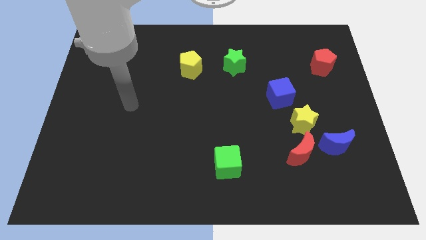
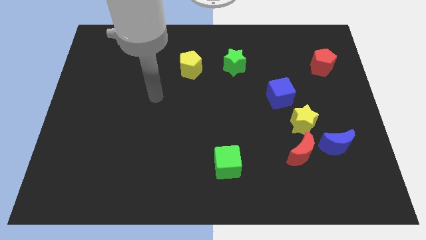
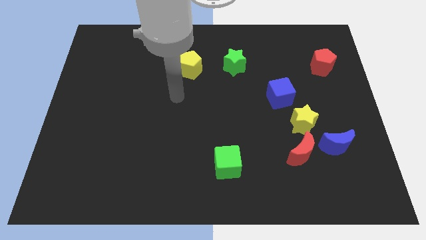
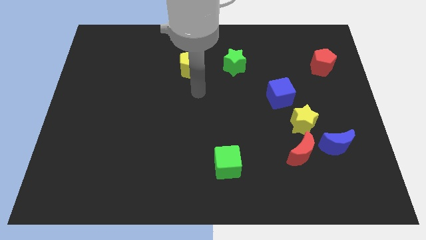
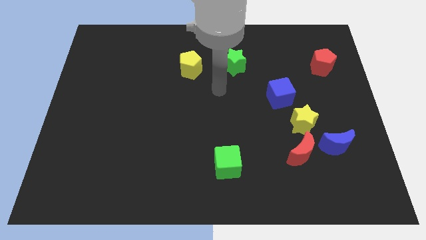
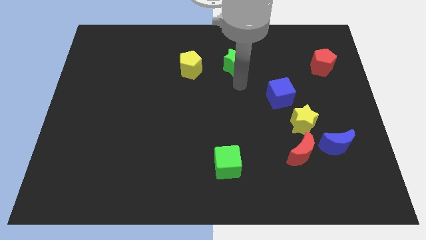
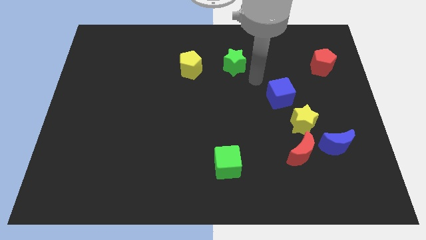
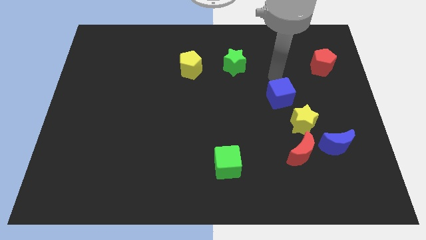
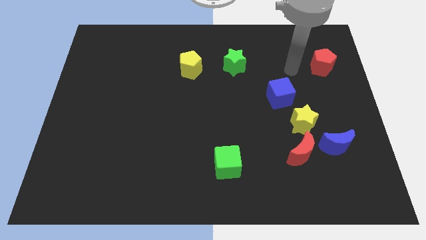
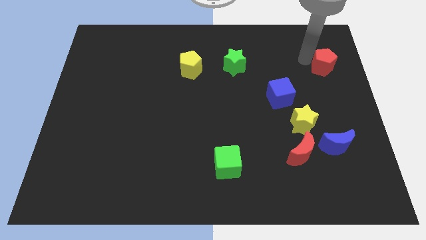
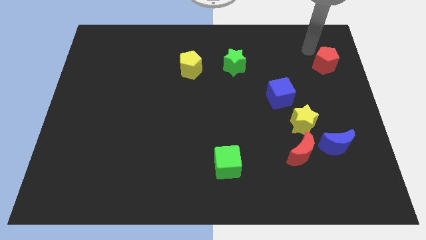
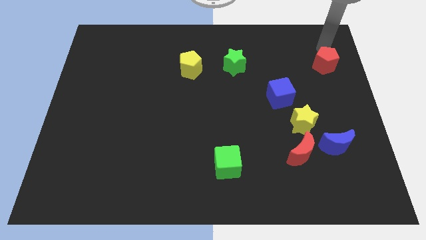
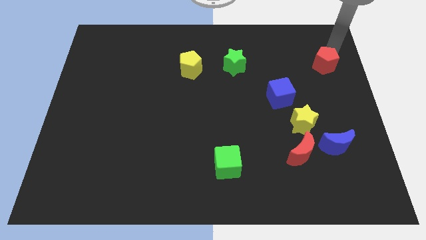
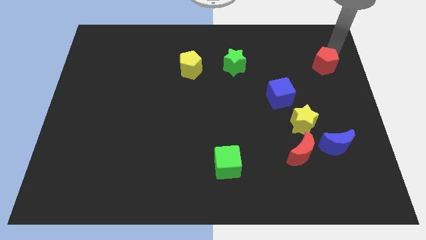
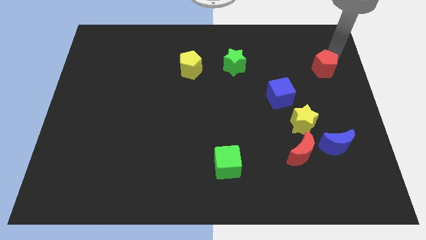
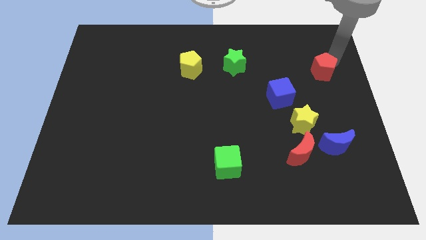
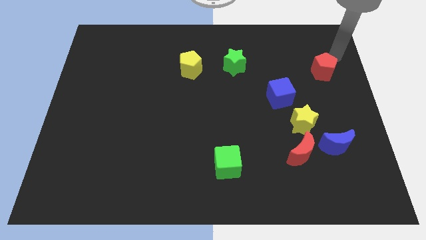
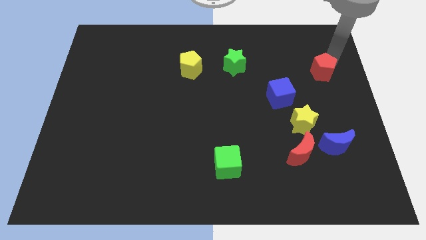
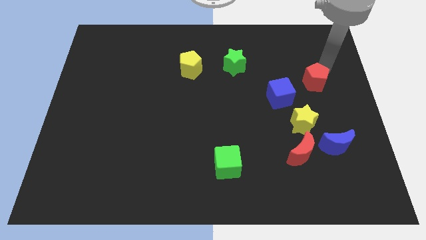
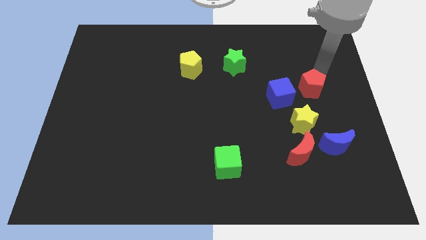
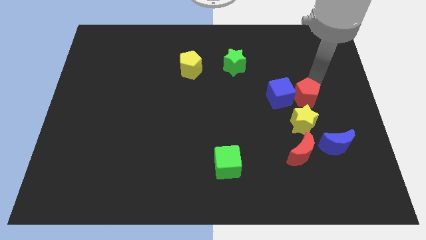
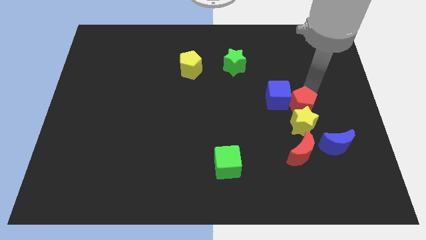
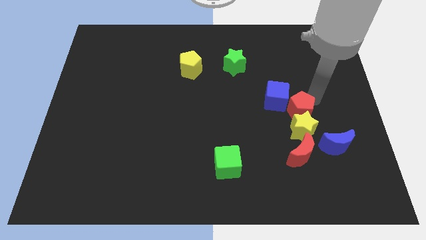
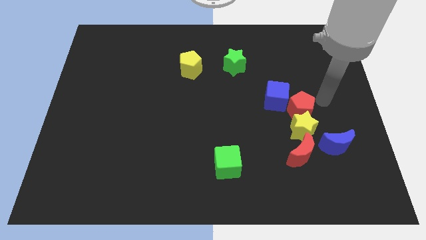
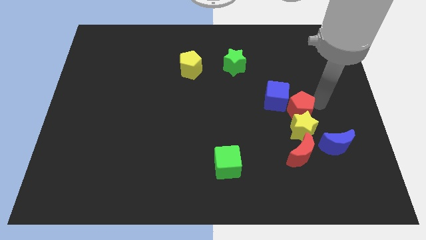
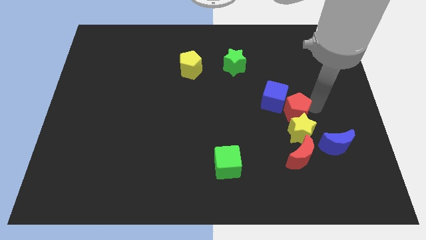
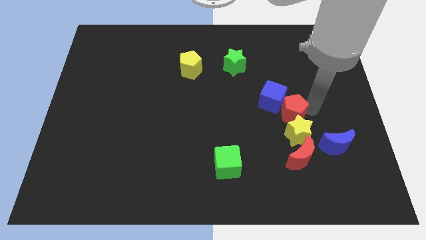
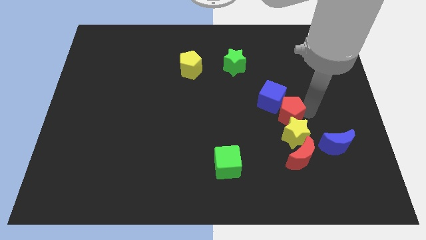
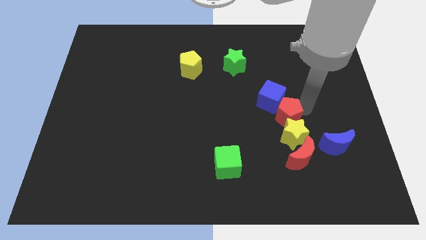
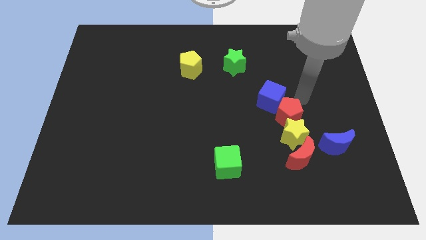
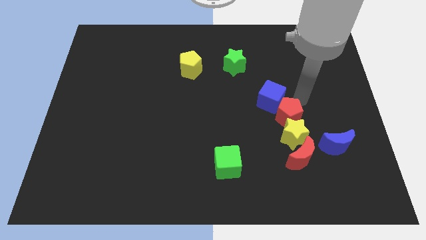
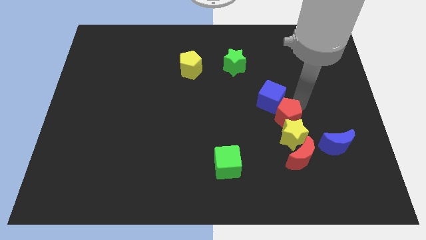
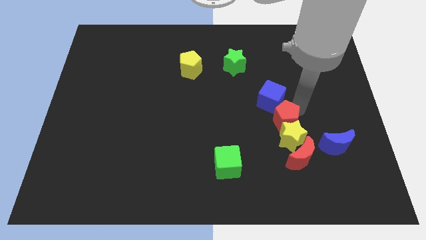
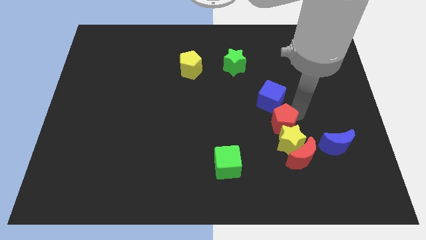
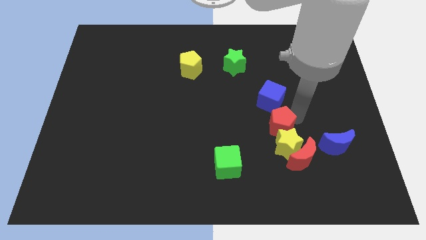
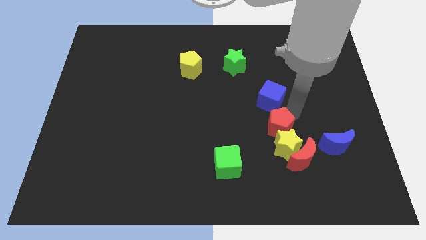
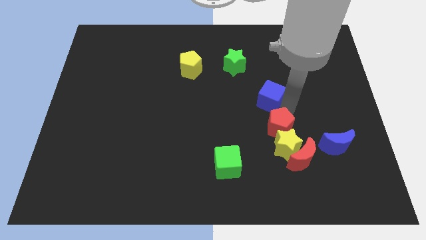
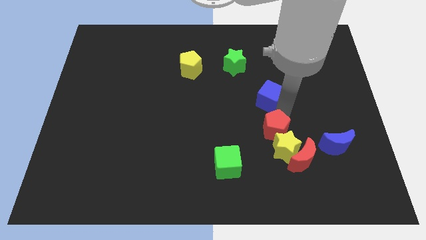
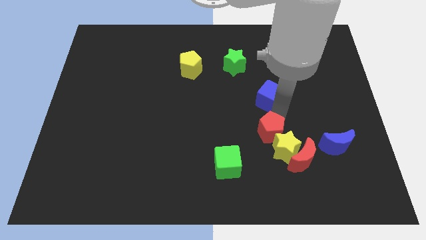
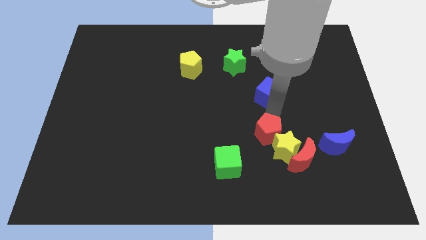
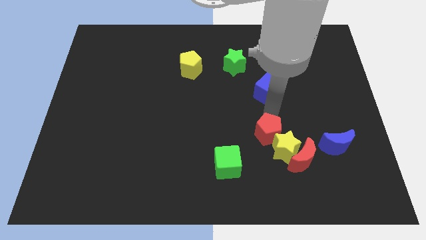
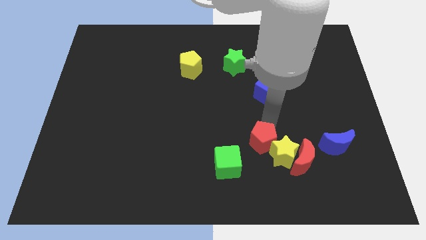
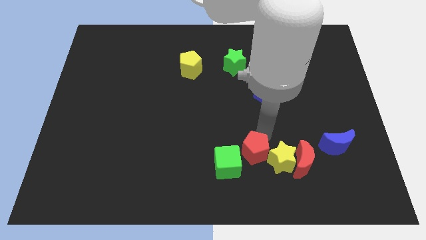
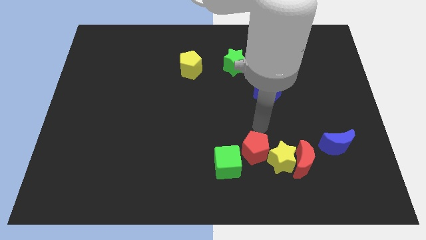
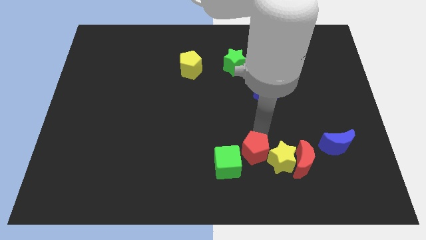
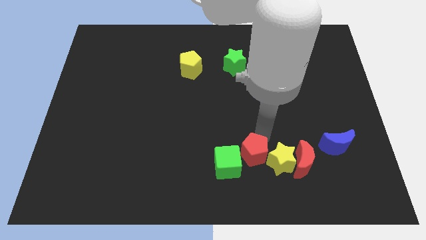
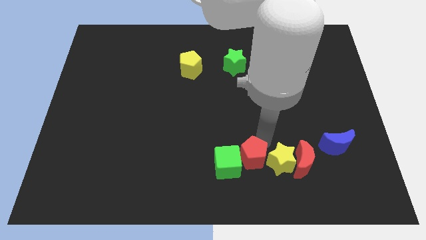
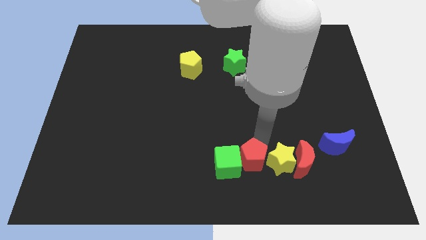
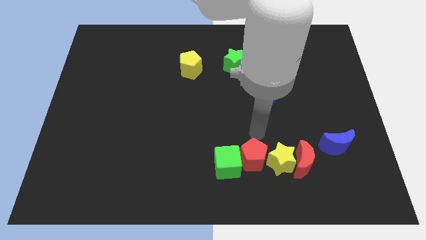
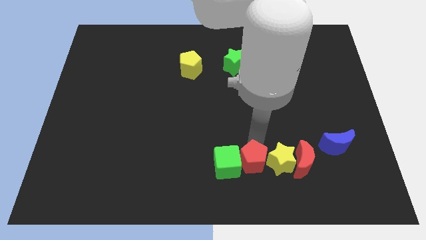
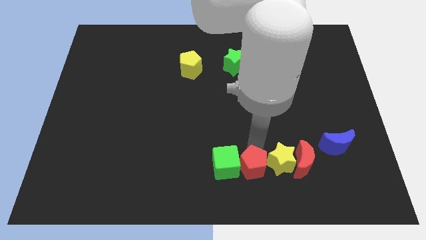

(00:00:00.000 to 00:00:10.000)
move the red pentagon to the bottom

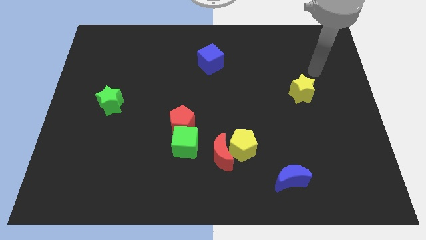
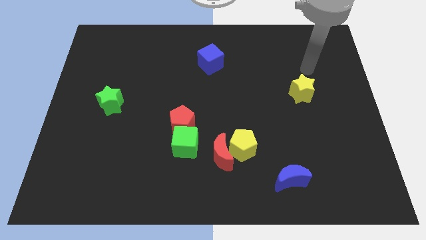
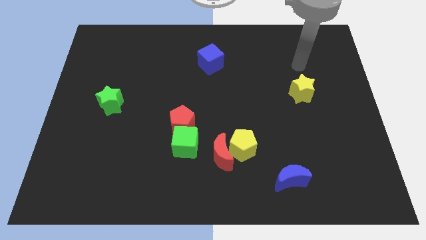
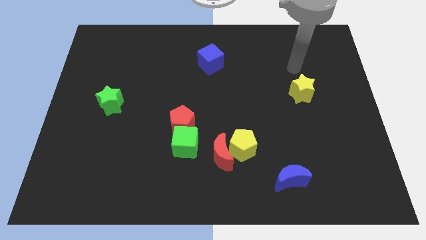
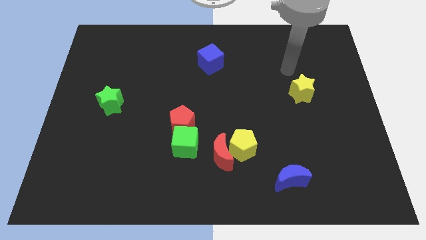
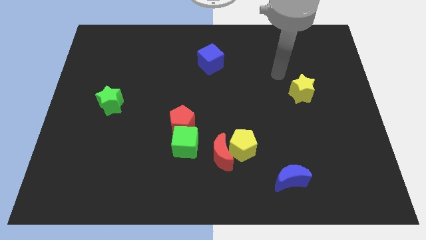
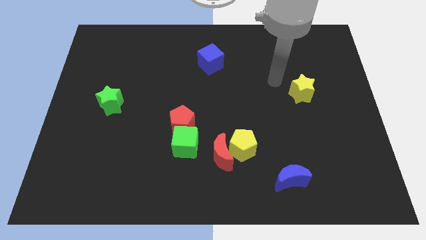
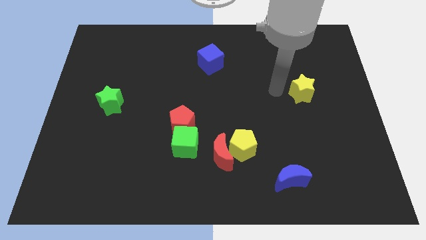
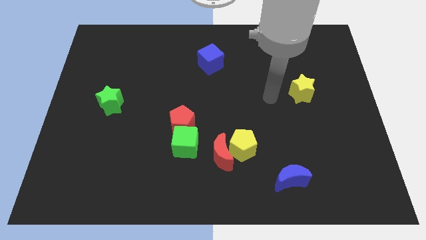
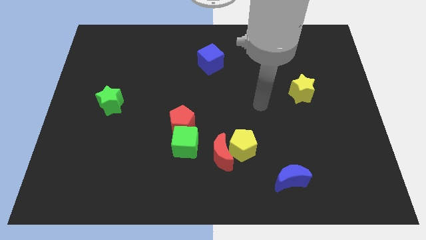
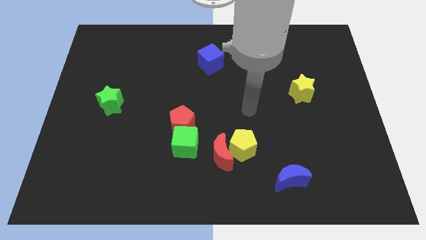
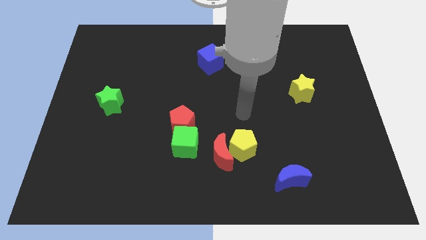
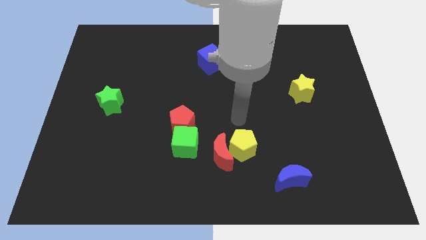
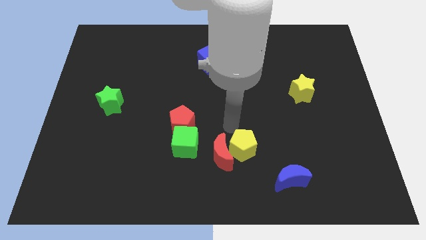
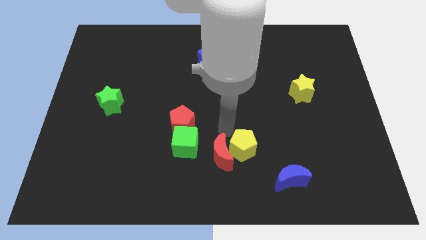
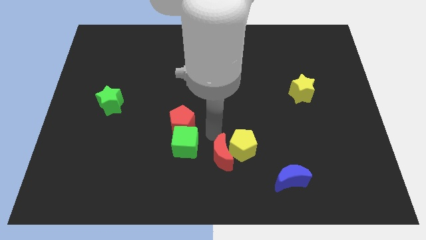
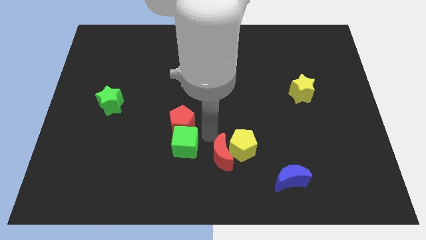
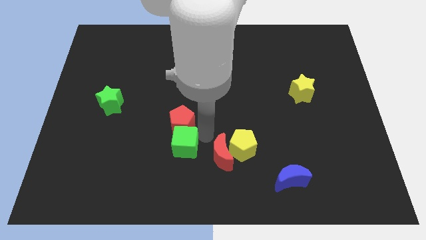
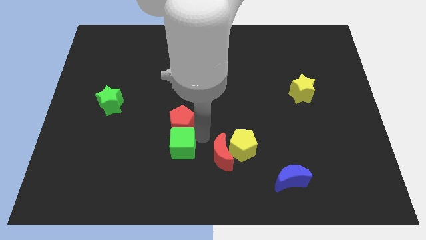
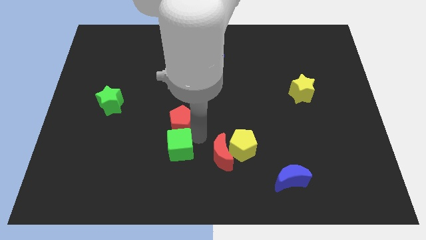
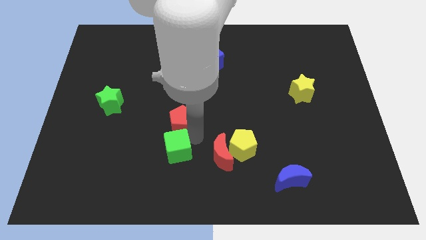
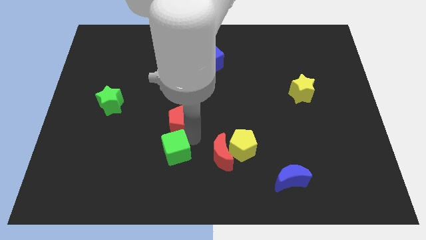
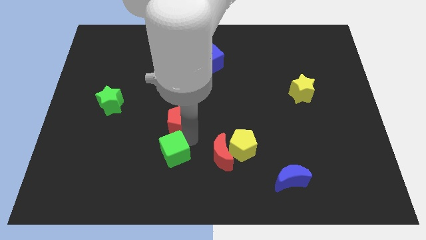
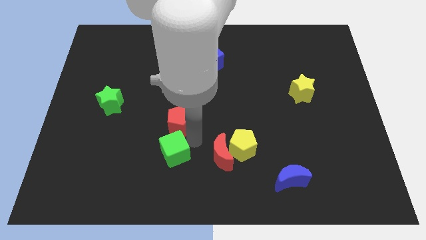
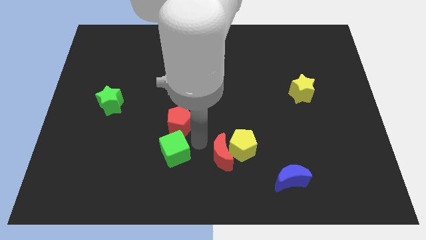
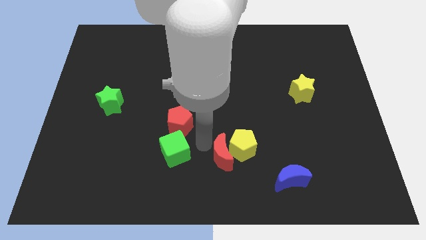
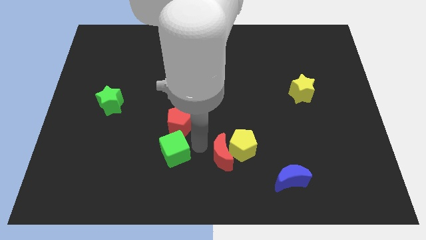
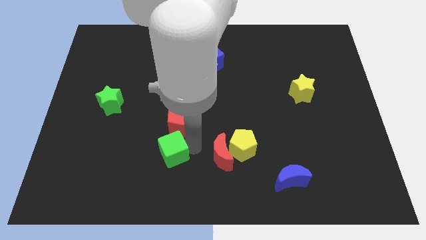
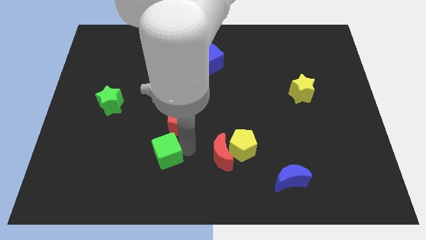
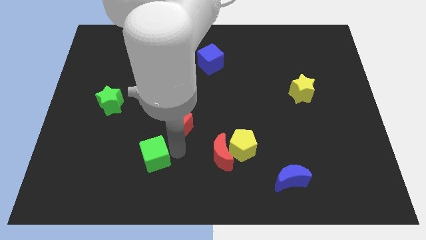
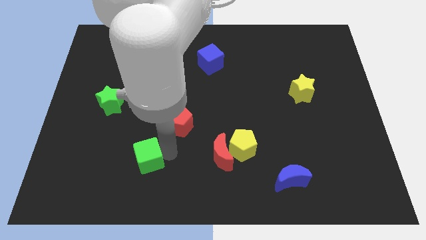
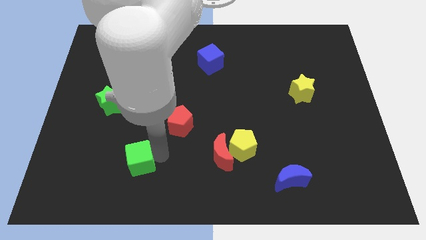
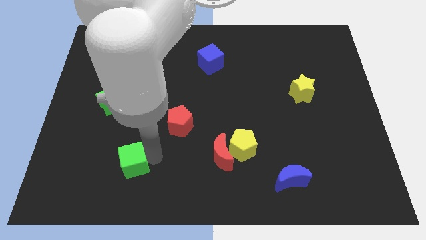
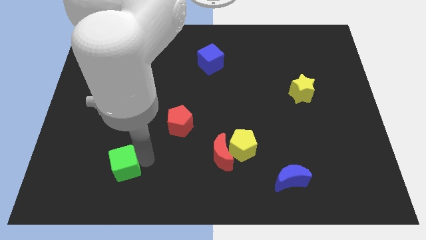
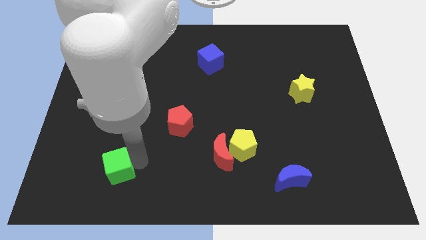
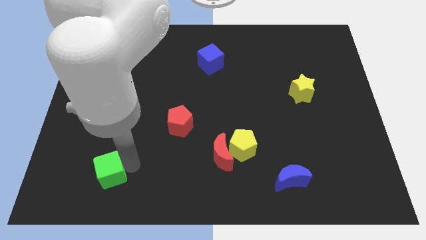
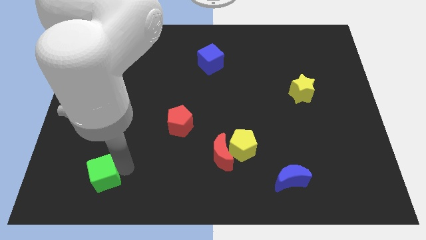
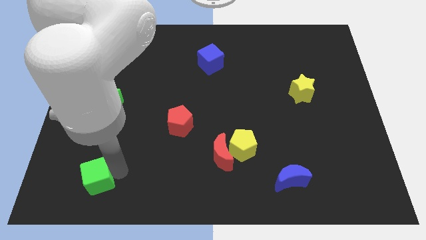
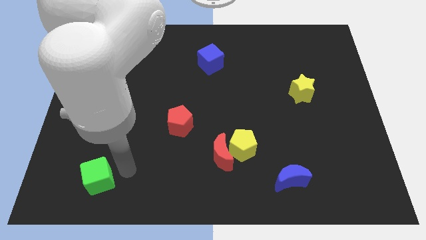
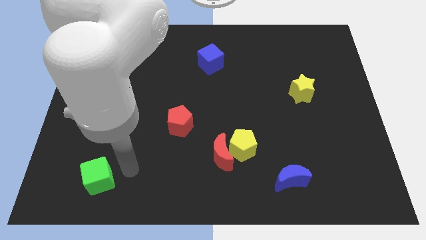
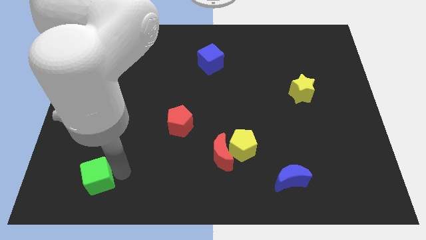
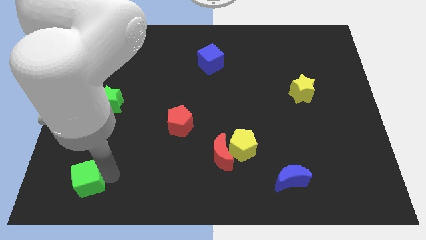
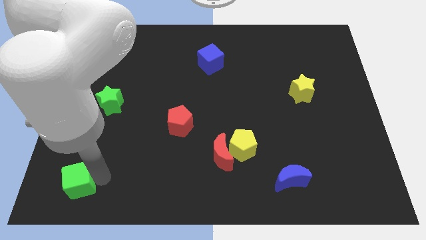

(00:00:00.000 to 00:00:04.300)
slide the green cube to the bottom left
